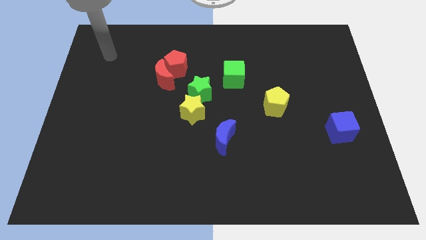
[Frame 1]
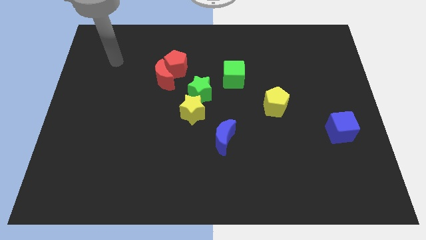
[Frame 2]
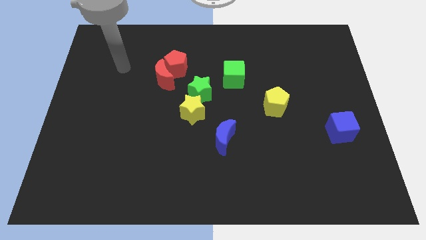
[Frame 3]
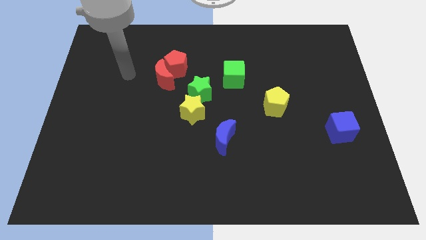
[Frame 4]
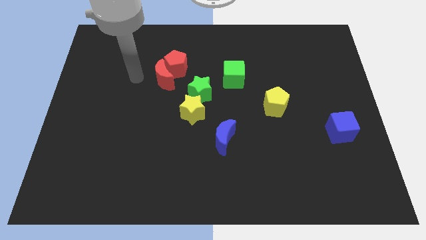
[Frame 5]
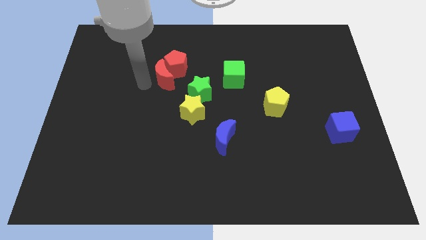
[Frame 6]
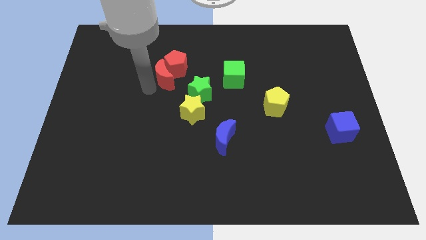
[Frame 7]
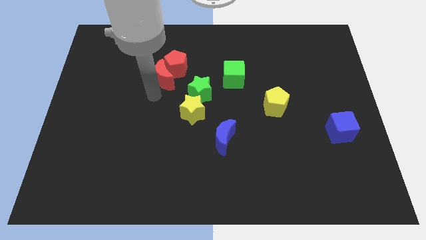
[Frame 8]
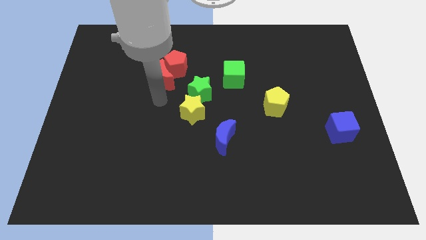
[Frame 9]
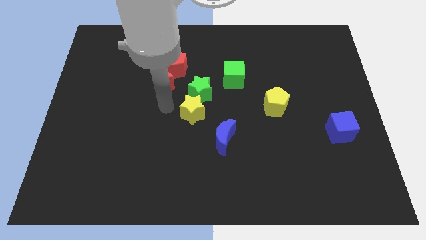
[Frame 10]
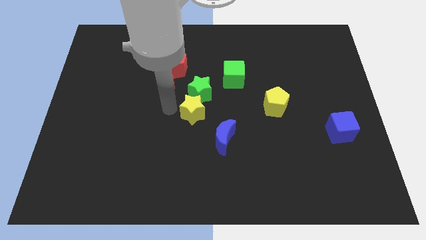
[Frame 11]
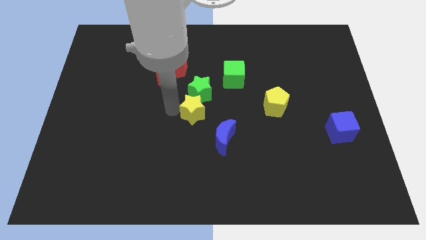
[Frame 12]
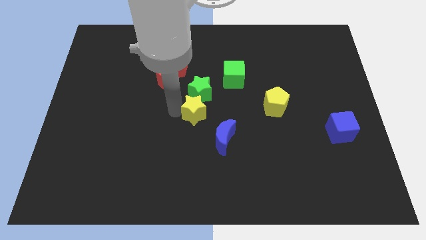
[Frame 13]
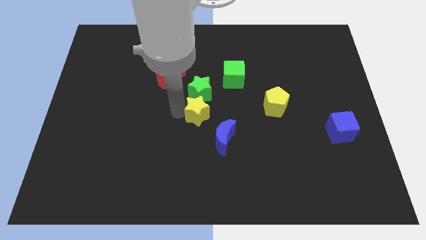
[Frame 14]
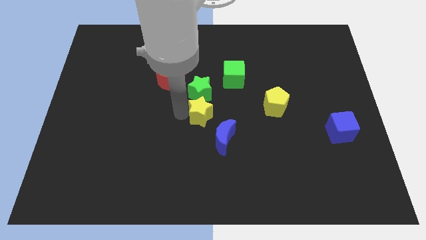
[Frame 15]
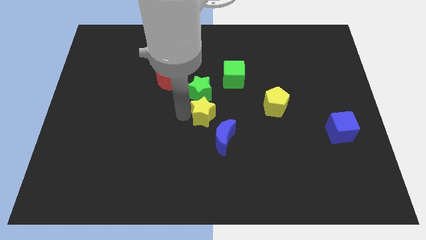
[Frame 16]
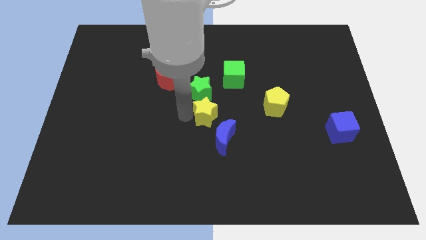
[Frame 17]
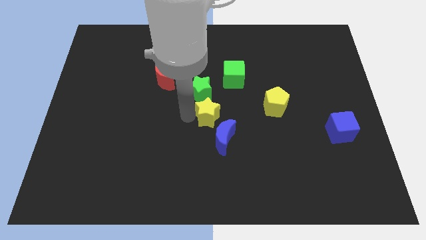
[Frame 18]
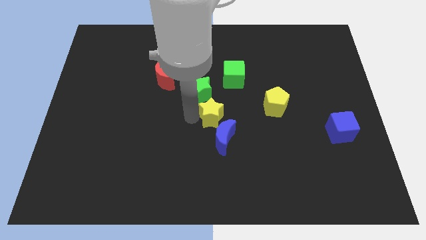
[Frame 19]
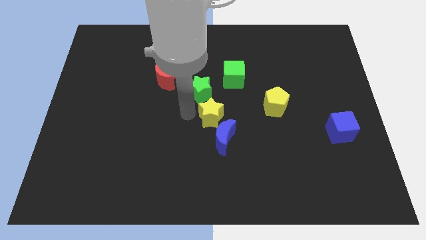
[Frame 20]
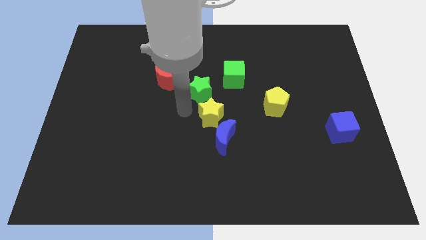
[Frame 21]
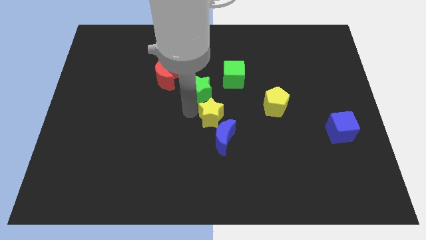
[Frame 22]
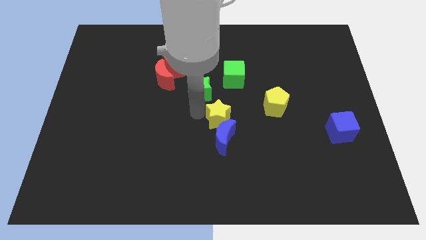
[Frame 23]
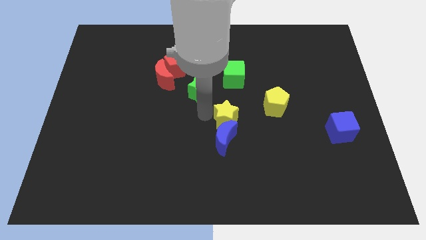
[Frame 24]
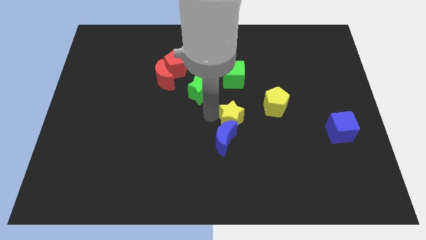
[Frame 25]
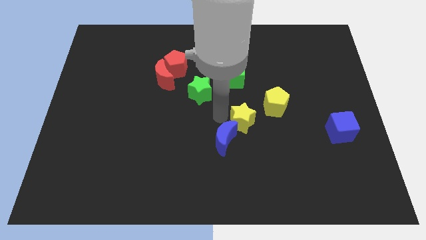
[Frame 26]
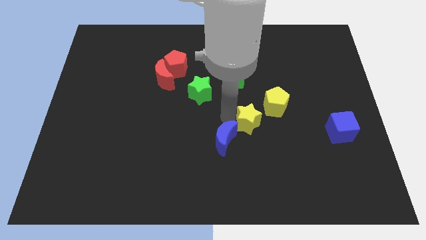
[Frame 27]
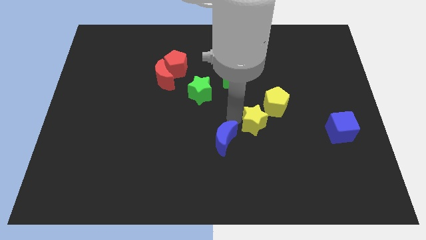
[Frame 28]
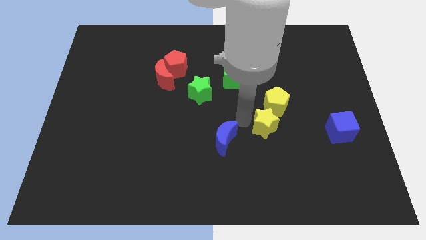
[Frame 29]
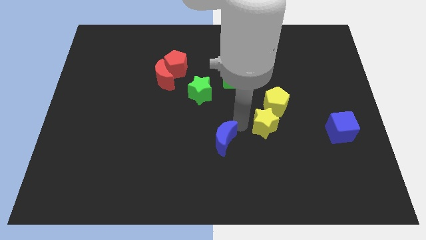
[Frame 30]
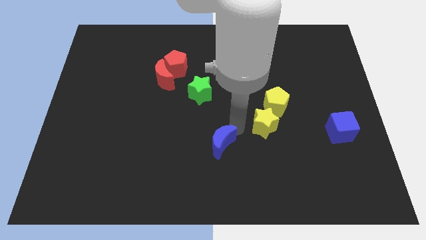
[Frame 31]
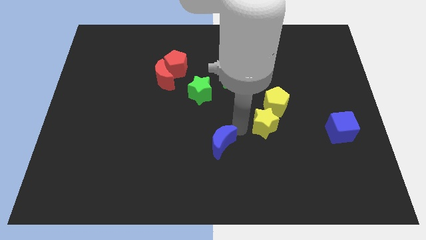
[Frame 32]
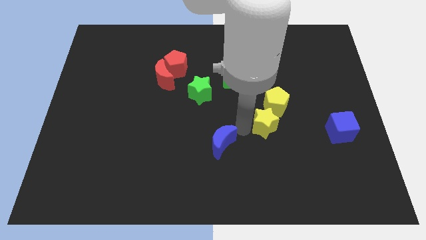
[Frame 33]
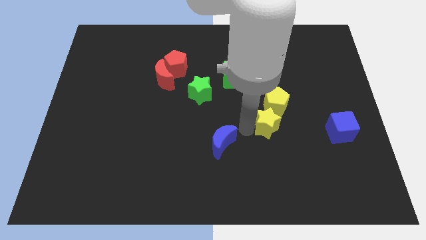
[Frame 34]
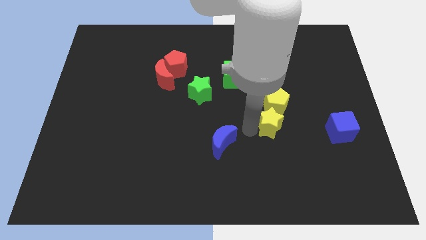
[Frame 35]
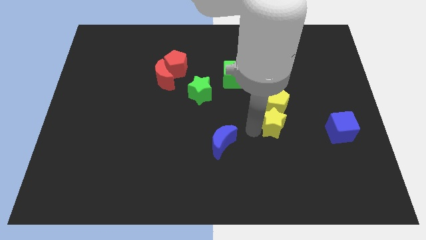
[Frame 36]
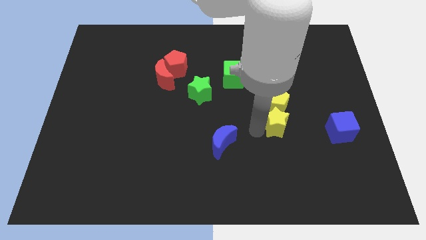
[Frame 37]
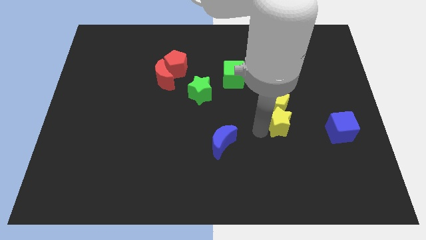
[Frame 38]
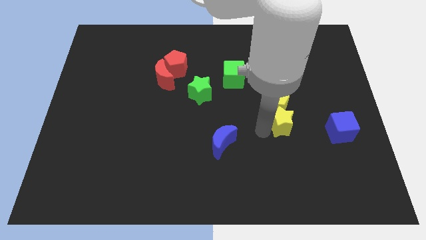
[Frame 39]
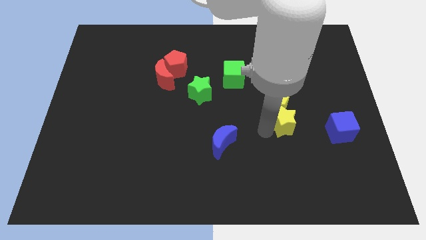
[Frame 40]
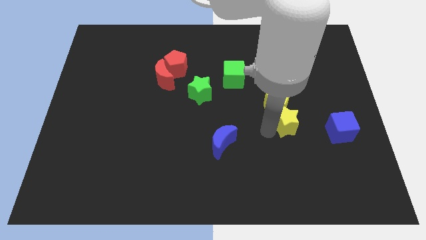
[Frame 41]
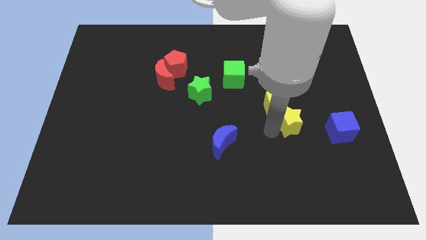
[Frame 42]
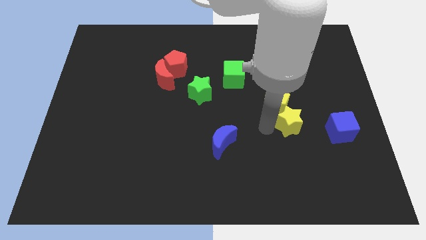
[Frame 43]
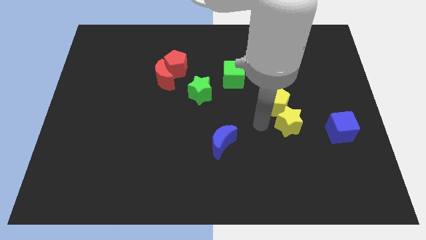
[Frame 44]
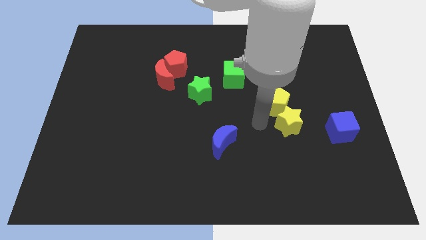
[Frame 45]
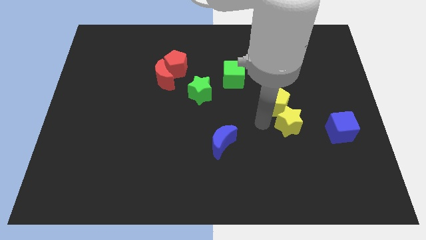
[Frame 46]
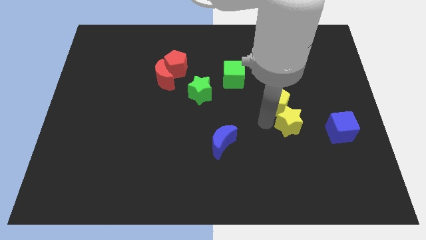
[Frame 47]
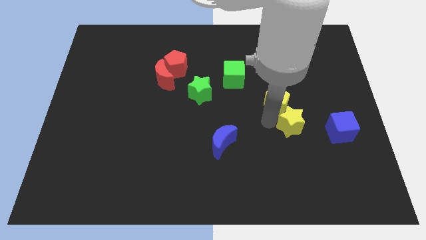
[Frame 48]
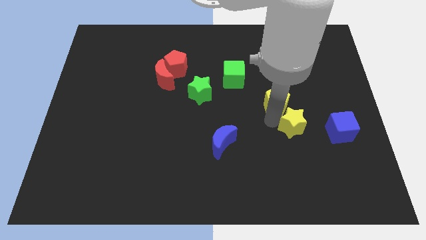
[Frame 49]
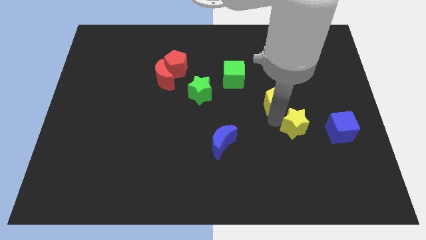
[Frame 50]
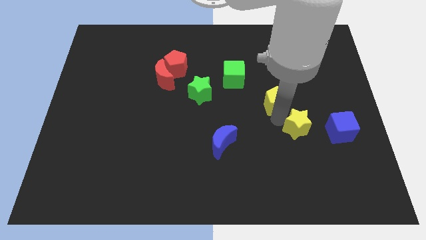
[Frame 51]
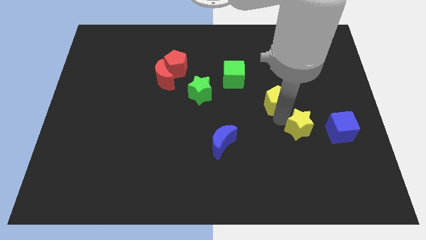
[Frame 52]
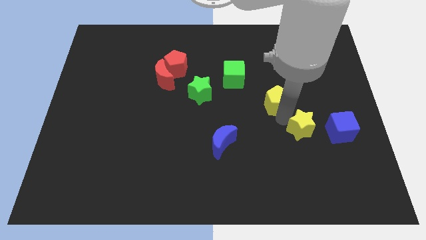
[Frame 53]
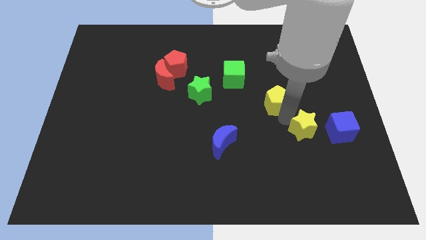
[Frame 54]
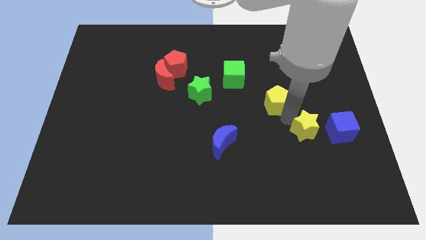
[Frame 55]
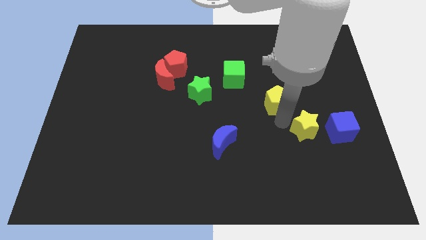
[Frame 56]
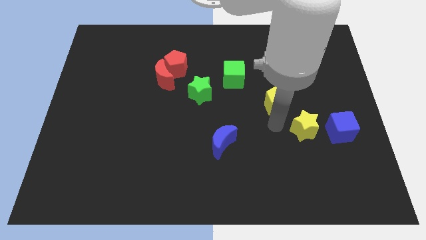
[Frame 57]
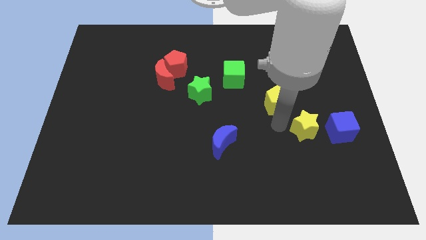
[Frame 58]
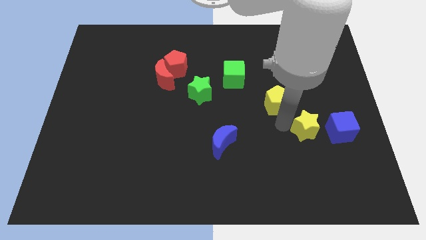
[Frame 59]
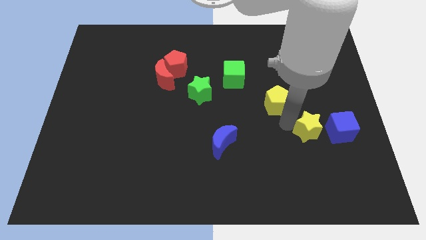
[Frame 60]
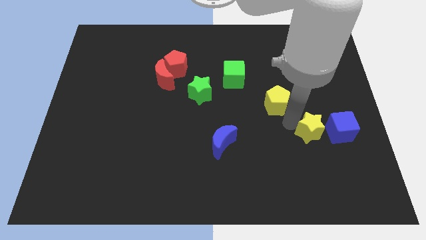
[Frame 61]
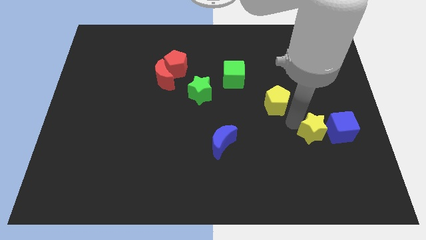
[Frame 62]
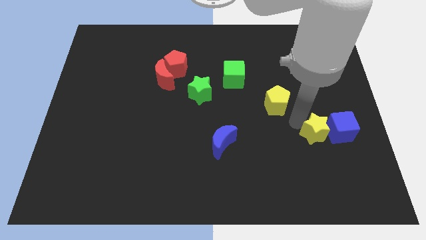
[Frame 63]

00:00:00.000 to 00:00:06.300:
move the yellow star next to the blue cube

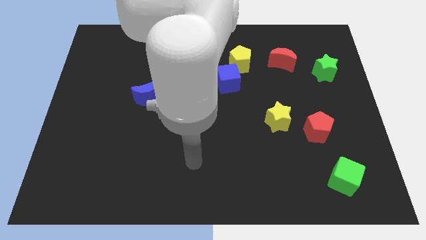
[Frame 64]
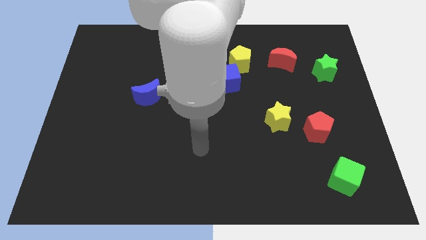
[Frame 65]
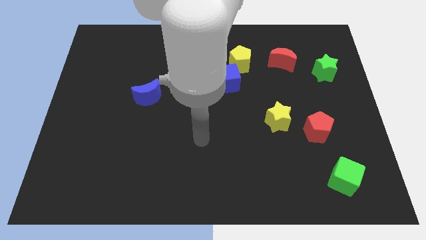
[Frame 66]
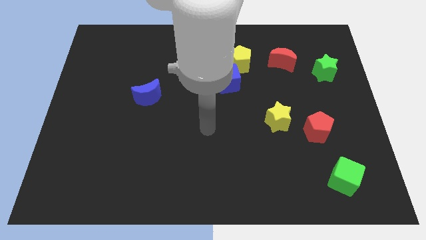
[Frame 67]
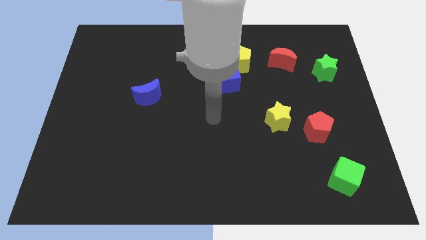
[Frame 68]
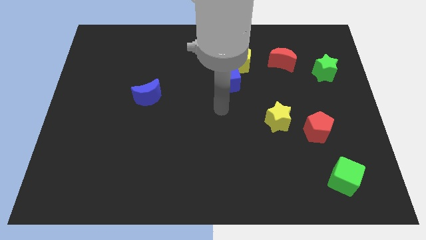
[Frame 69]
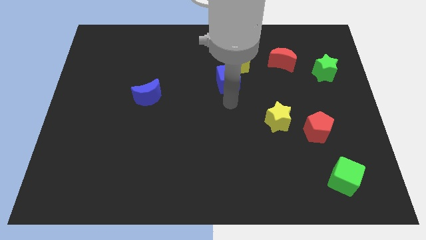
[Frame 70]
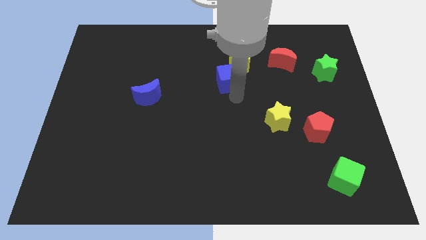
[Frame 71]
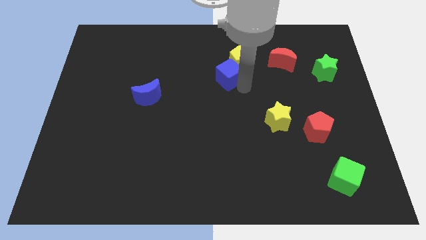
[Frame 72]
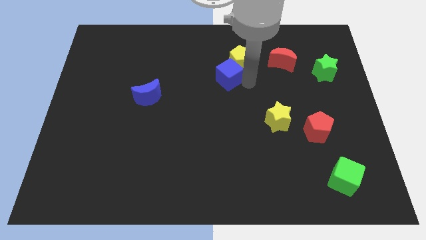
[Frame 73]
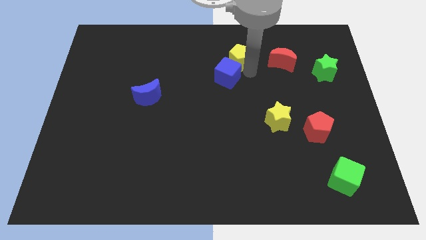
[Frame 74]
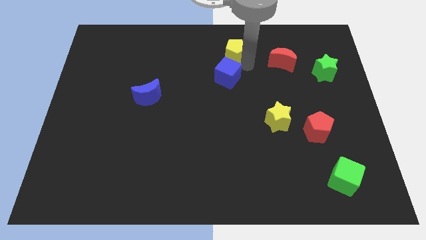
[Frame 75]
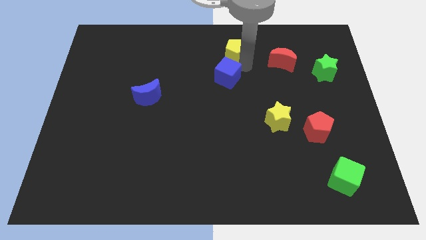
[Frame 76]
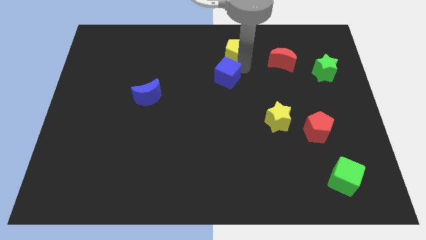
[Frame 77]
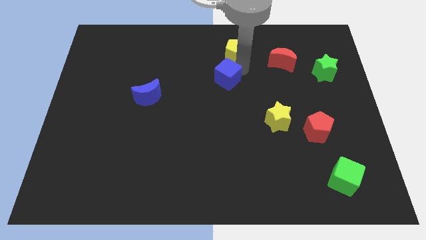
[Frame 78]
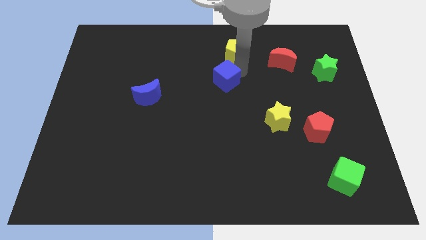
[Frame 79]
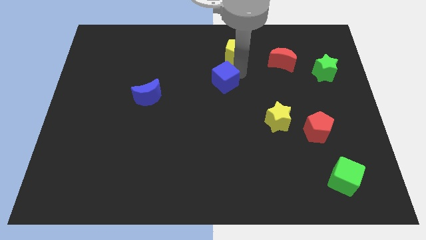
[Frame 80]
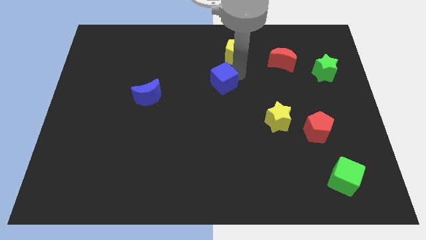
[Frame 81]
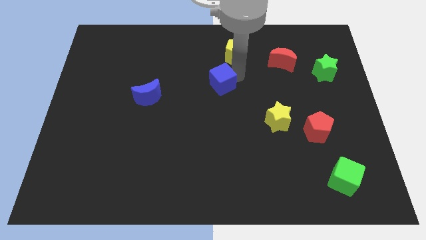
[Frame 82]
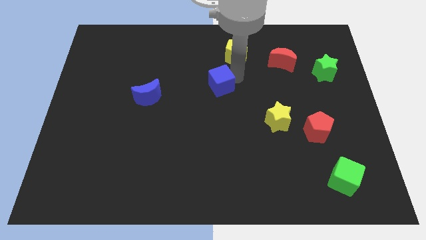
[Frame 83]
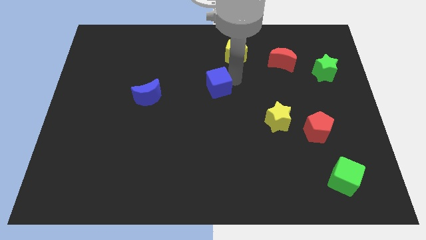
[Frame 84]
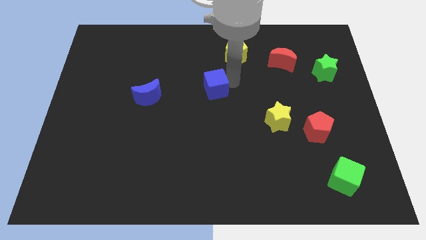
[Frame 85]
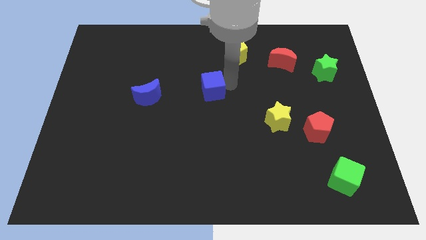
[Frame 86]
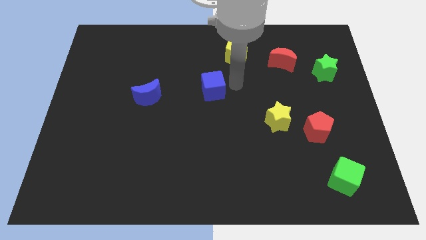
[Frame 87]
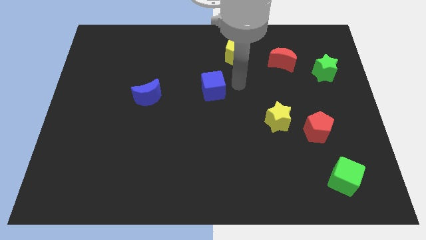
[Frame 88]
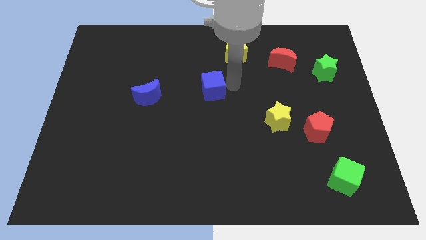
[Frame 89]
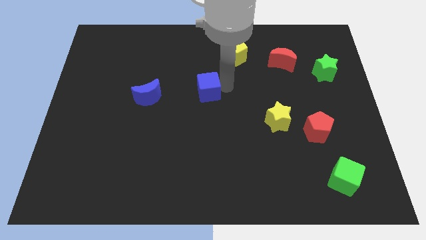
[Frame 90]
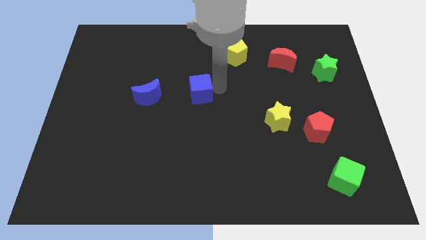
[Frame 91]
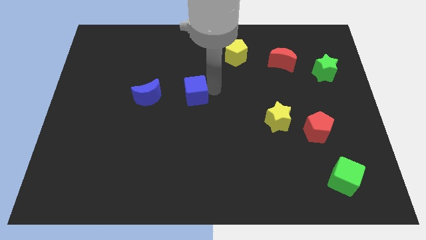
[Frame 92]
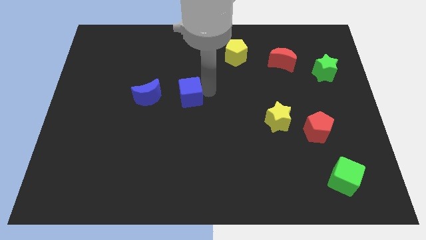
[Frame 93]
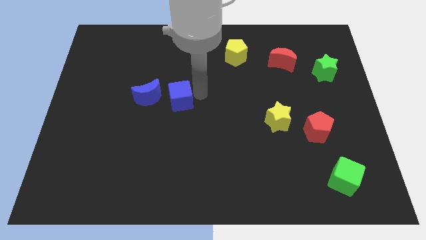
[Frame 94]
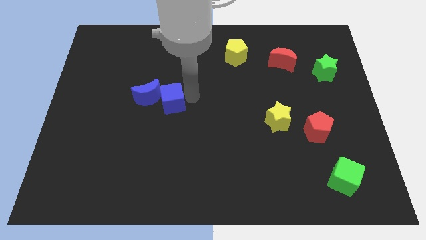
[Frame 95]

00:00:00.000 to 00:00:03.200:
push the blue cube close to the blue moon
